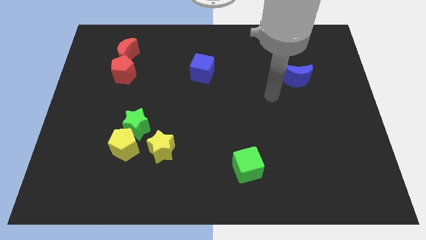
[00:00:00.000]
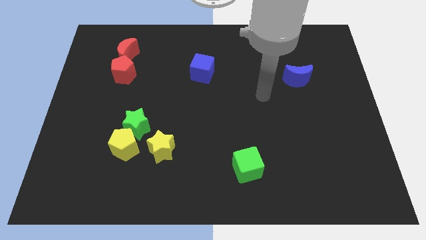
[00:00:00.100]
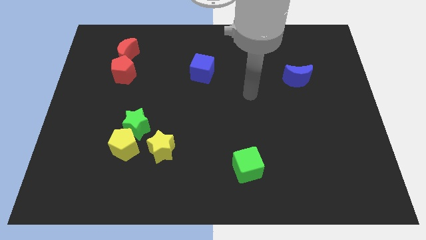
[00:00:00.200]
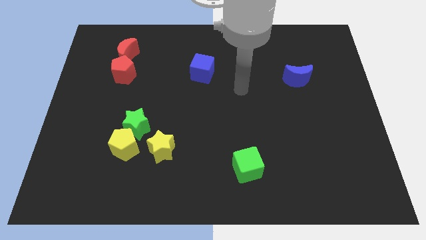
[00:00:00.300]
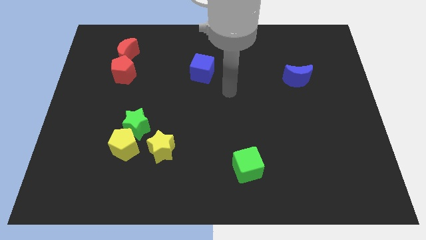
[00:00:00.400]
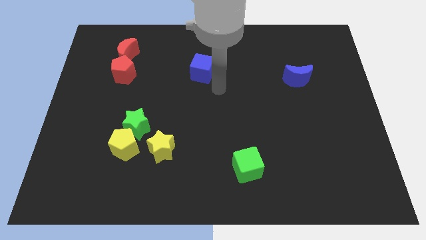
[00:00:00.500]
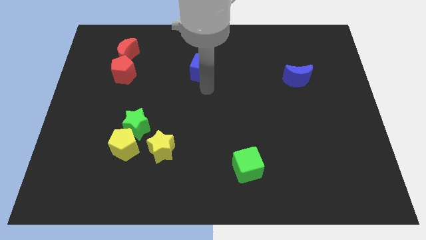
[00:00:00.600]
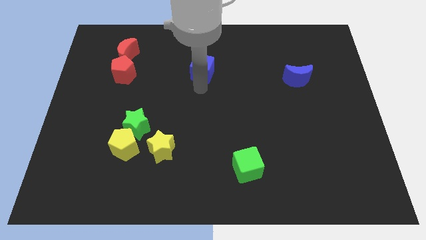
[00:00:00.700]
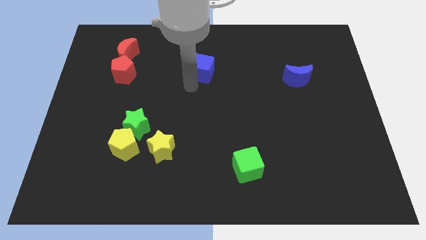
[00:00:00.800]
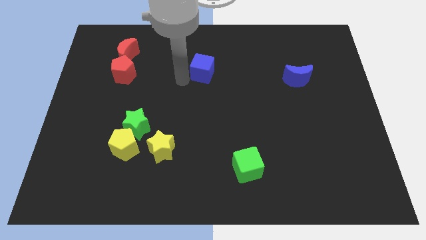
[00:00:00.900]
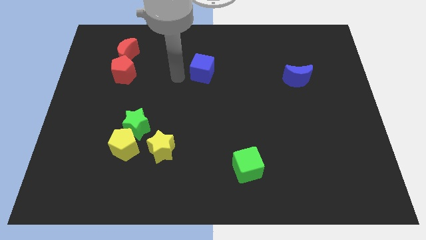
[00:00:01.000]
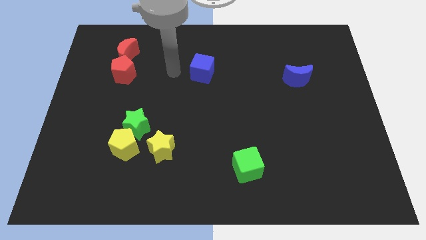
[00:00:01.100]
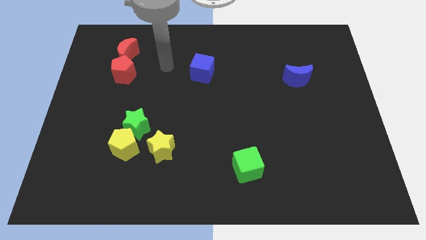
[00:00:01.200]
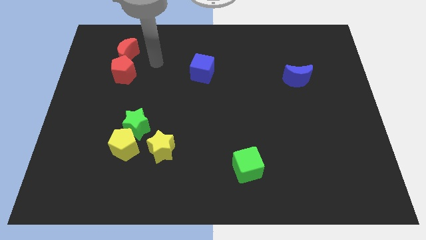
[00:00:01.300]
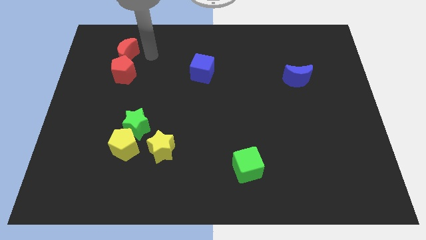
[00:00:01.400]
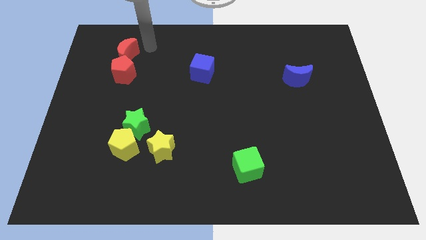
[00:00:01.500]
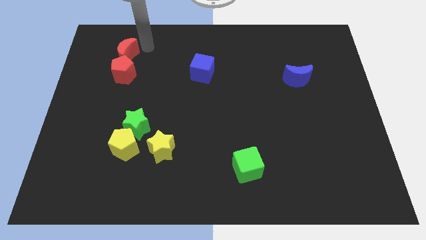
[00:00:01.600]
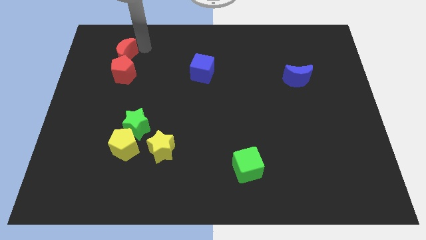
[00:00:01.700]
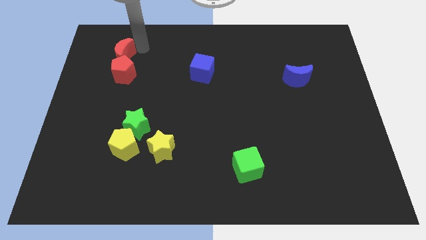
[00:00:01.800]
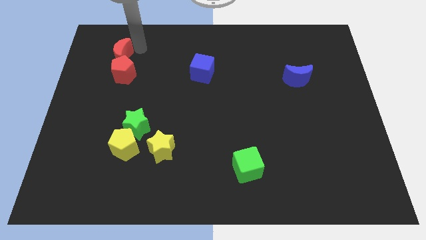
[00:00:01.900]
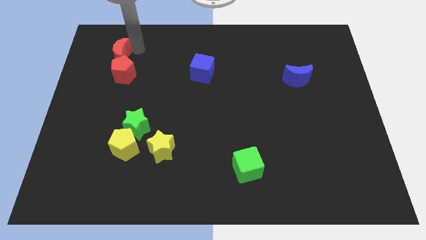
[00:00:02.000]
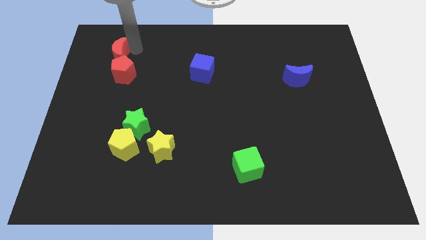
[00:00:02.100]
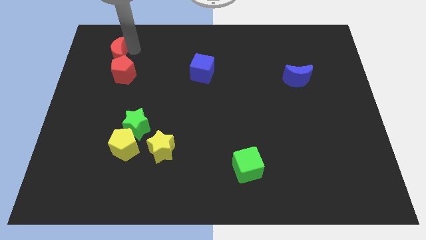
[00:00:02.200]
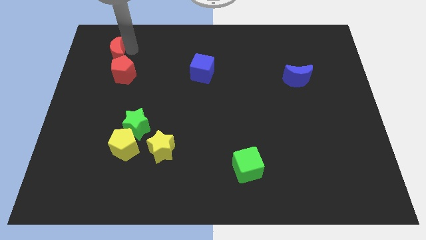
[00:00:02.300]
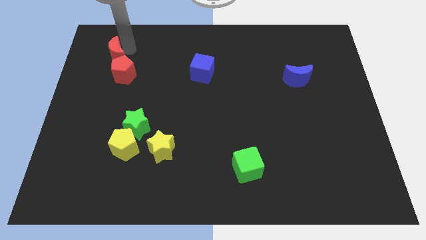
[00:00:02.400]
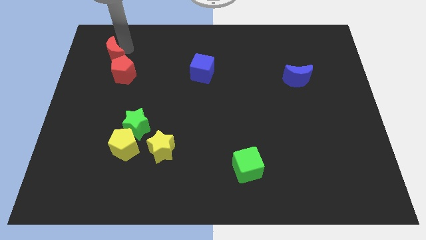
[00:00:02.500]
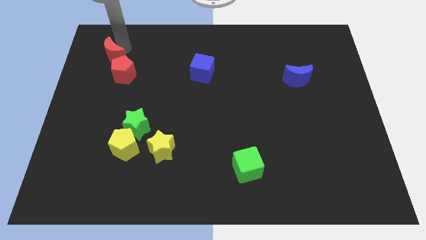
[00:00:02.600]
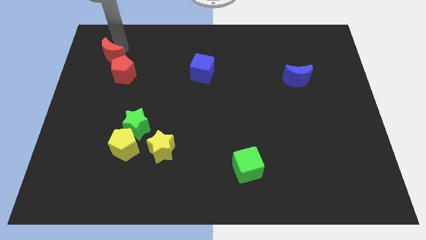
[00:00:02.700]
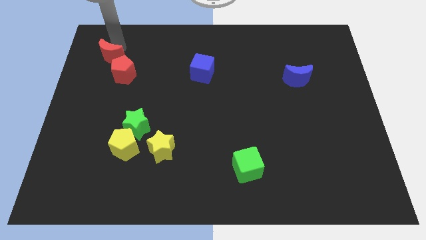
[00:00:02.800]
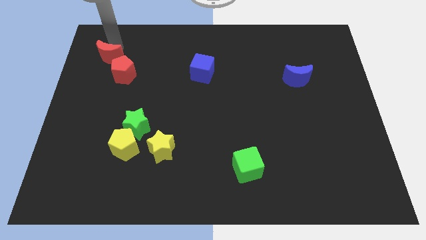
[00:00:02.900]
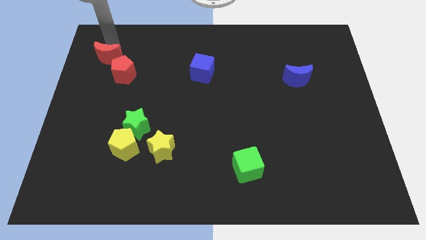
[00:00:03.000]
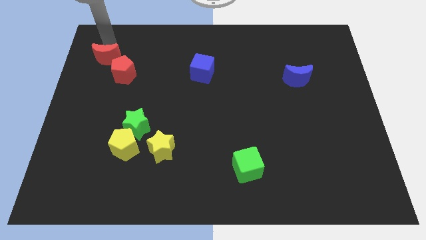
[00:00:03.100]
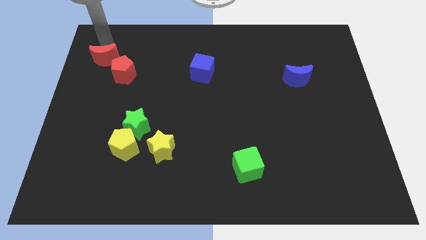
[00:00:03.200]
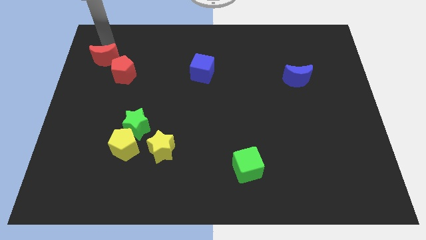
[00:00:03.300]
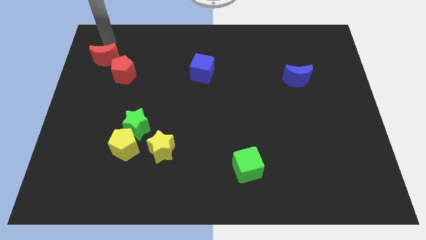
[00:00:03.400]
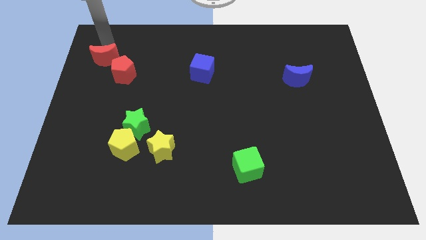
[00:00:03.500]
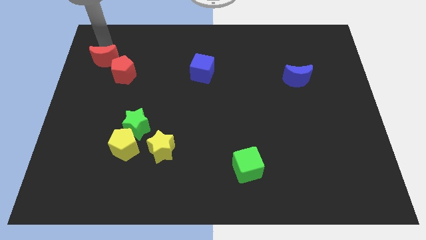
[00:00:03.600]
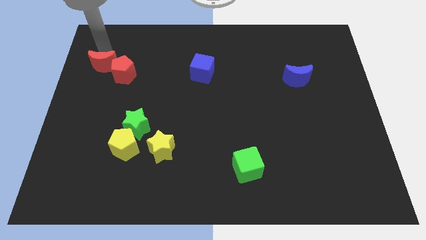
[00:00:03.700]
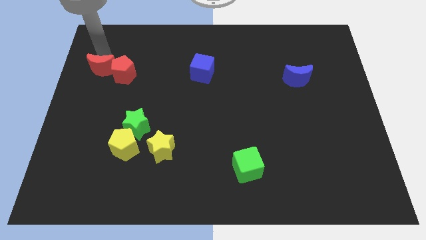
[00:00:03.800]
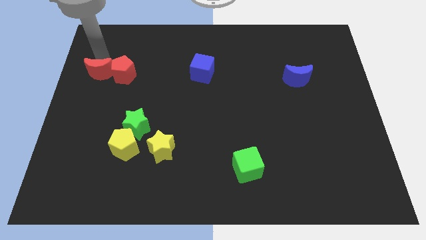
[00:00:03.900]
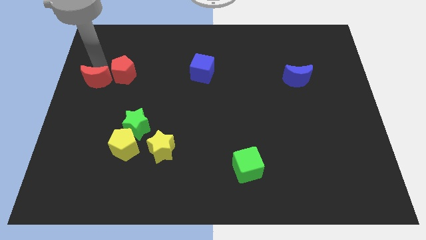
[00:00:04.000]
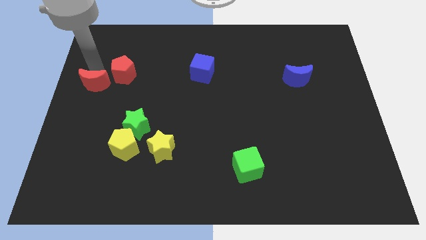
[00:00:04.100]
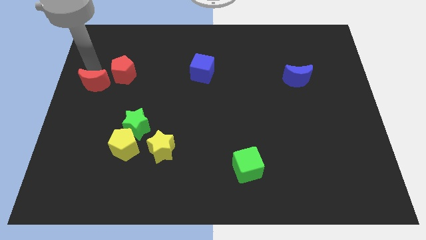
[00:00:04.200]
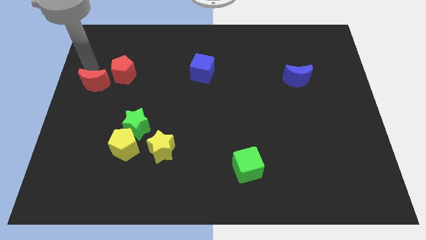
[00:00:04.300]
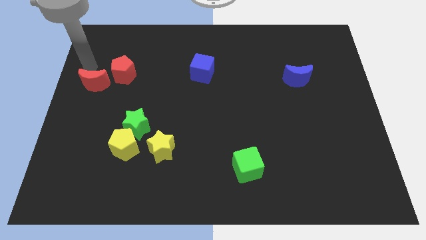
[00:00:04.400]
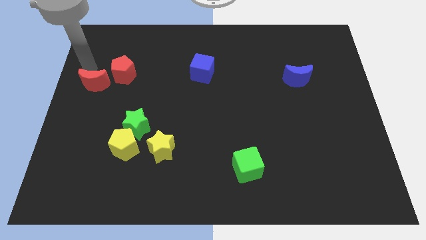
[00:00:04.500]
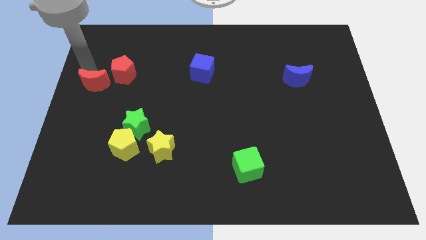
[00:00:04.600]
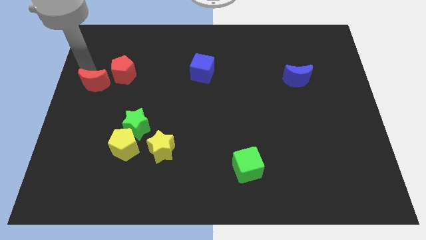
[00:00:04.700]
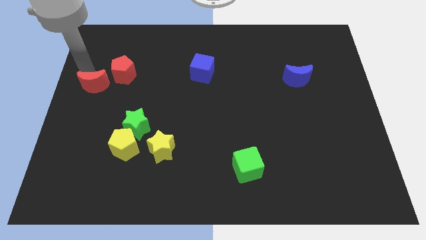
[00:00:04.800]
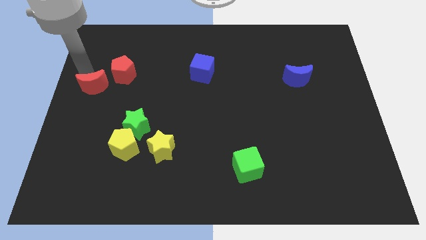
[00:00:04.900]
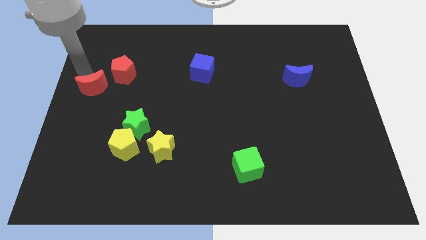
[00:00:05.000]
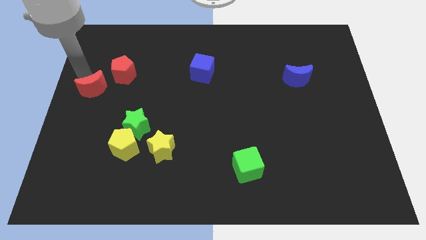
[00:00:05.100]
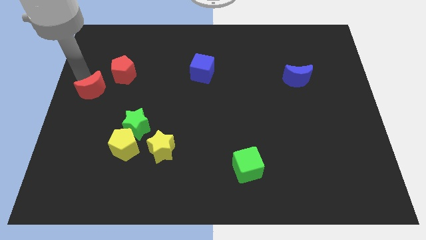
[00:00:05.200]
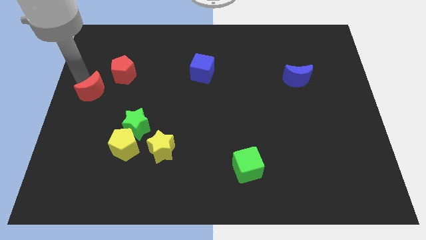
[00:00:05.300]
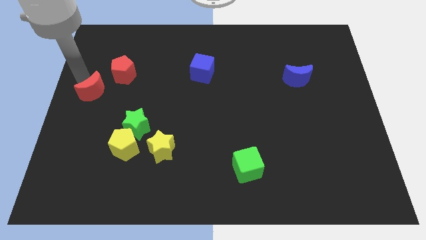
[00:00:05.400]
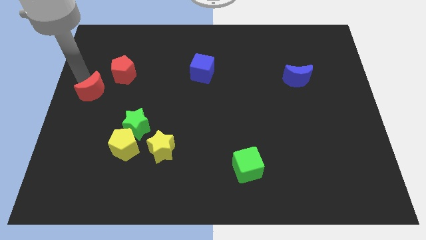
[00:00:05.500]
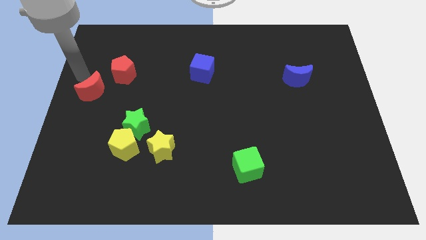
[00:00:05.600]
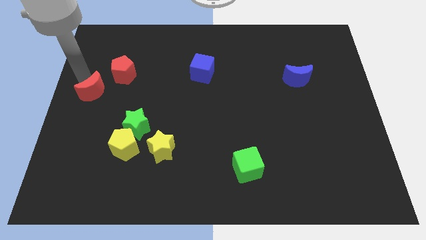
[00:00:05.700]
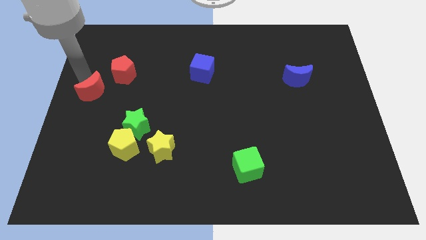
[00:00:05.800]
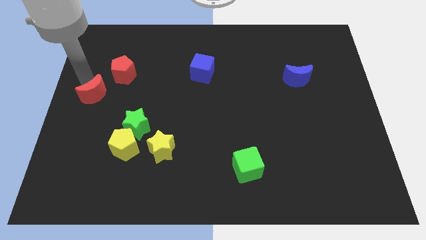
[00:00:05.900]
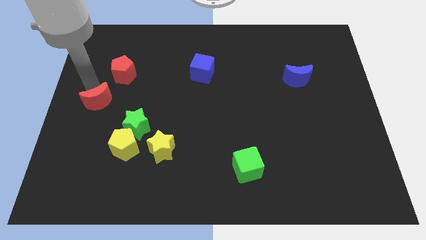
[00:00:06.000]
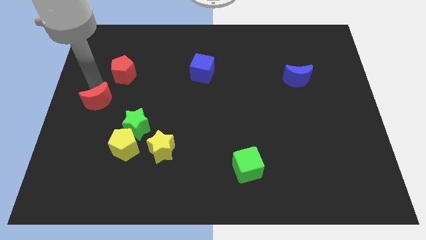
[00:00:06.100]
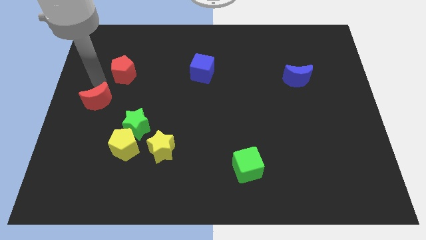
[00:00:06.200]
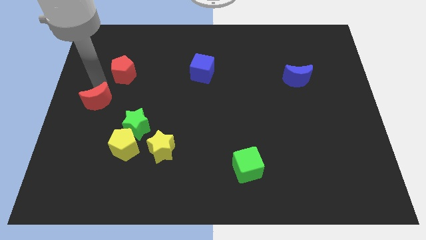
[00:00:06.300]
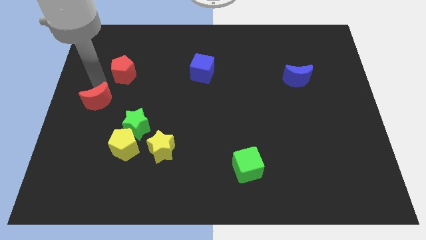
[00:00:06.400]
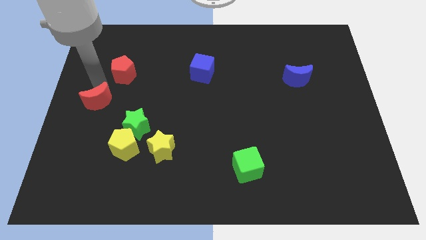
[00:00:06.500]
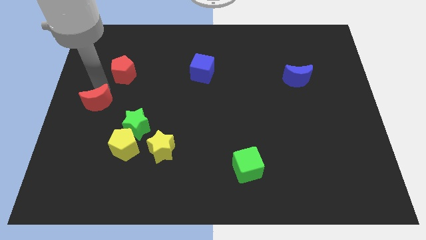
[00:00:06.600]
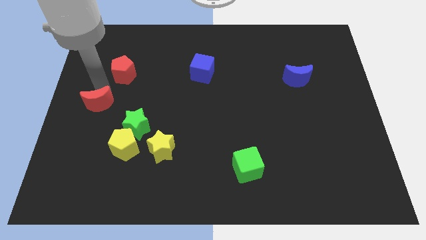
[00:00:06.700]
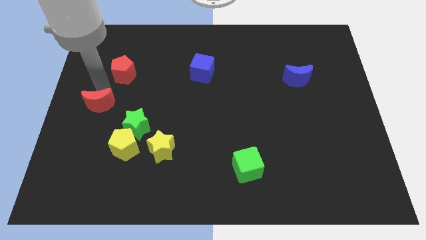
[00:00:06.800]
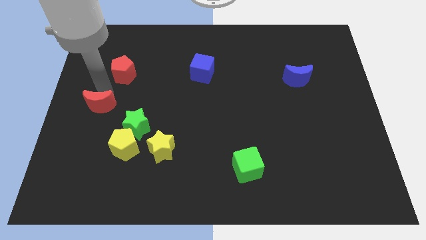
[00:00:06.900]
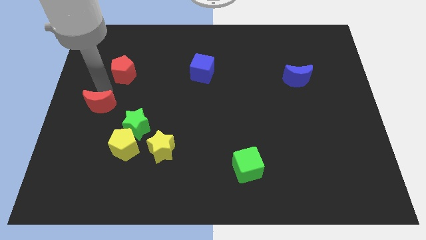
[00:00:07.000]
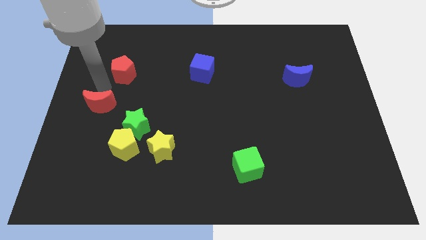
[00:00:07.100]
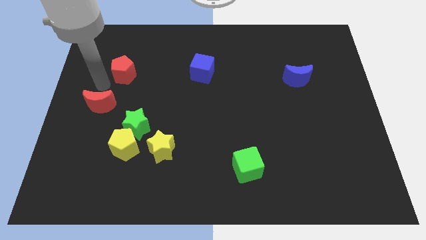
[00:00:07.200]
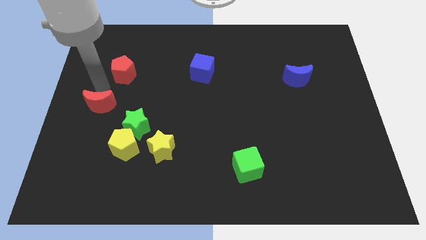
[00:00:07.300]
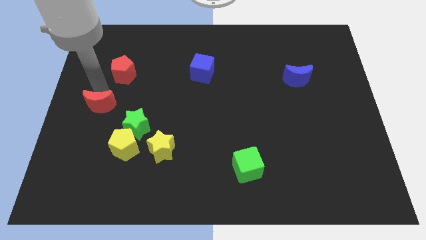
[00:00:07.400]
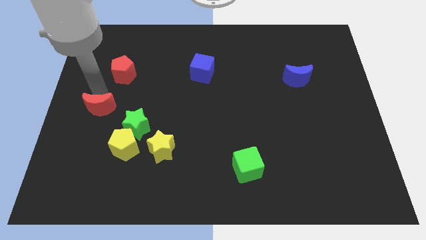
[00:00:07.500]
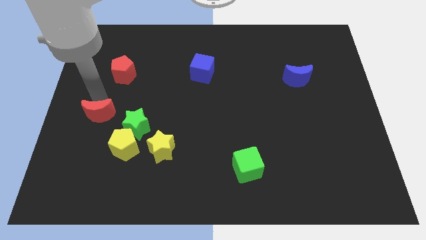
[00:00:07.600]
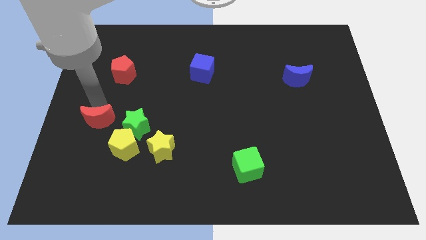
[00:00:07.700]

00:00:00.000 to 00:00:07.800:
move the red moon downwards
